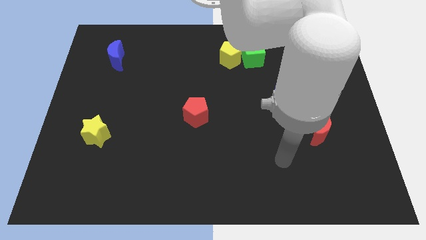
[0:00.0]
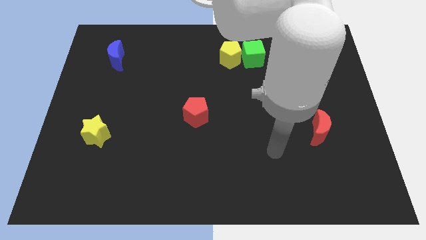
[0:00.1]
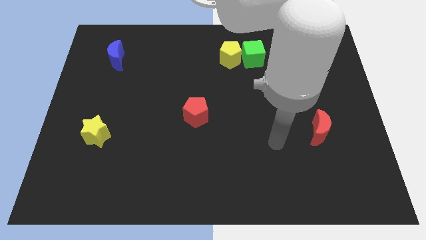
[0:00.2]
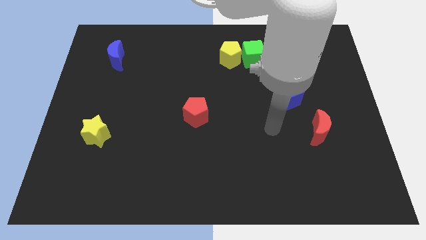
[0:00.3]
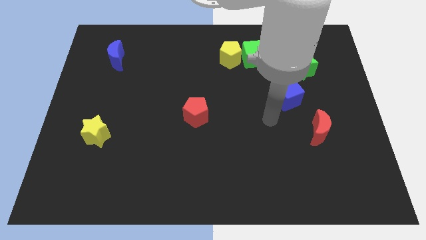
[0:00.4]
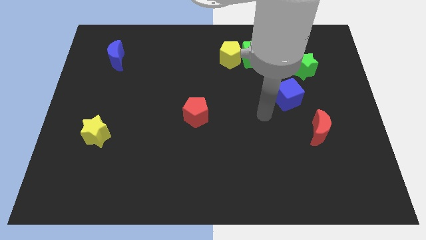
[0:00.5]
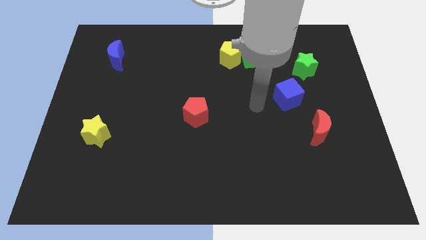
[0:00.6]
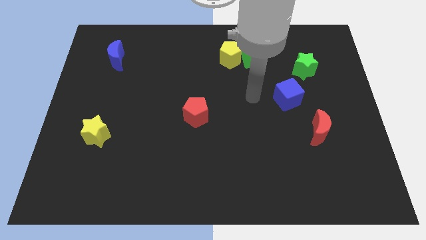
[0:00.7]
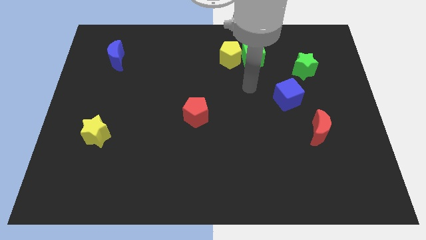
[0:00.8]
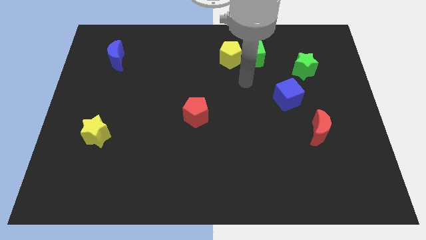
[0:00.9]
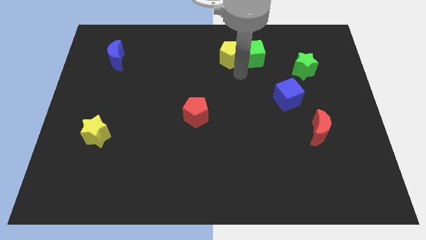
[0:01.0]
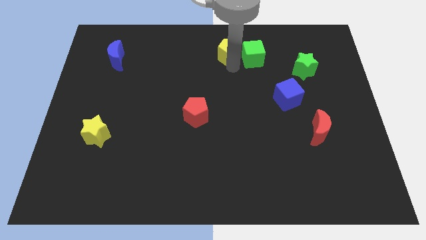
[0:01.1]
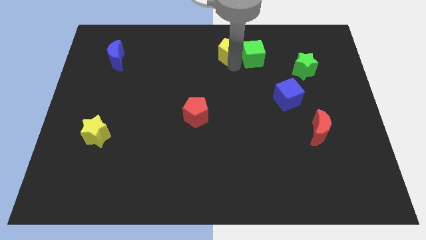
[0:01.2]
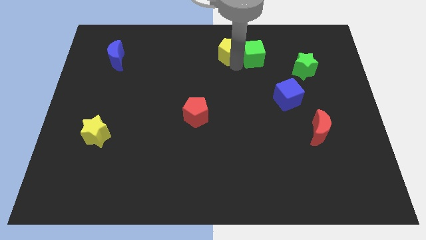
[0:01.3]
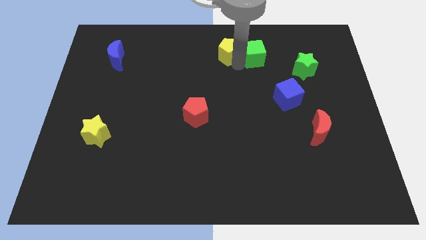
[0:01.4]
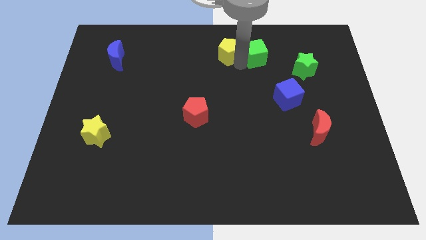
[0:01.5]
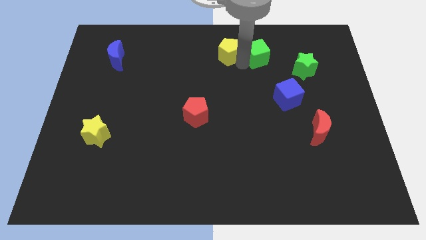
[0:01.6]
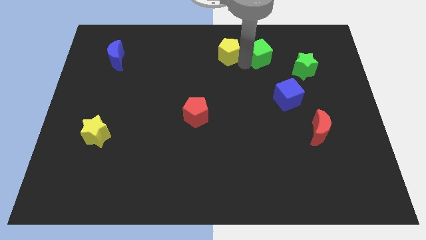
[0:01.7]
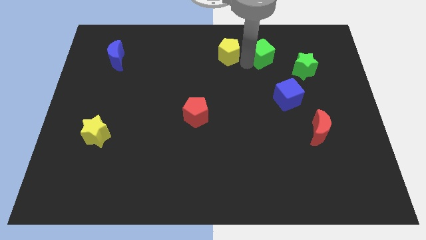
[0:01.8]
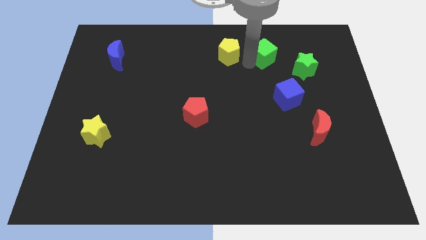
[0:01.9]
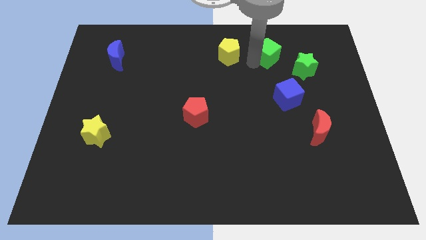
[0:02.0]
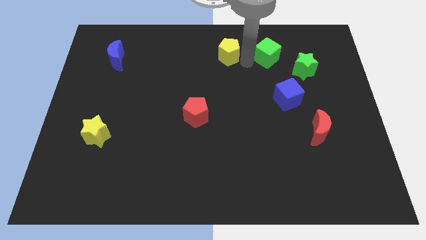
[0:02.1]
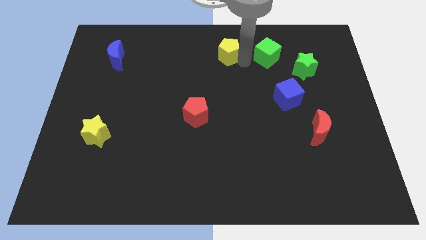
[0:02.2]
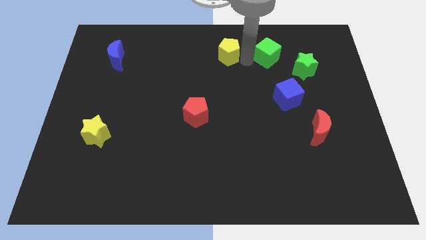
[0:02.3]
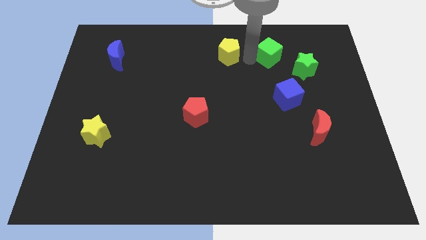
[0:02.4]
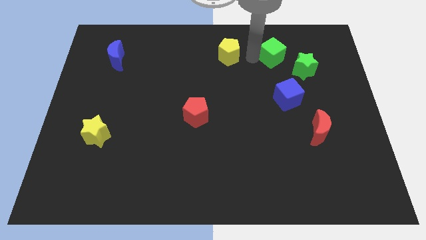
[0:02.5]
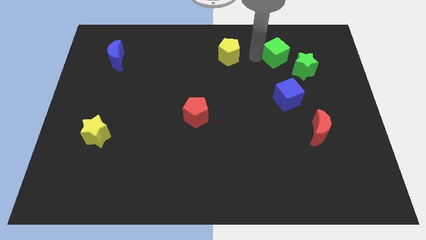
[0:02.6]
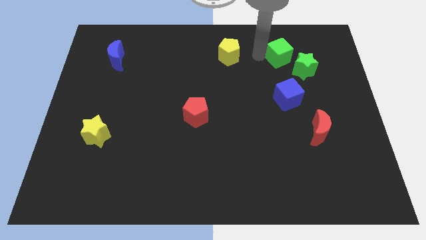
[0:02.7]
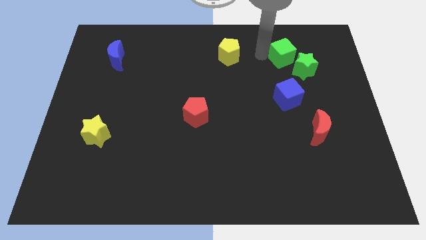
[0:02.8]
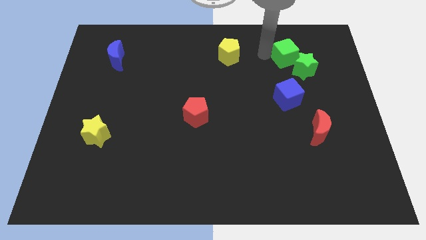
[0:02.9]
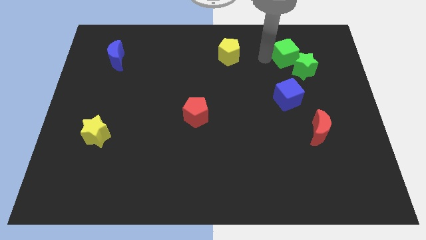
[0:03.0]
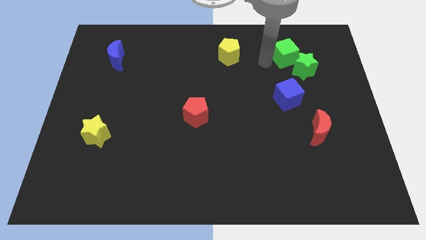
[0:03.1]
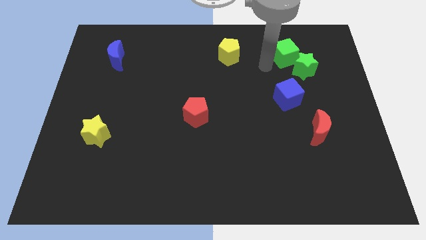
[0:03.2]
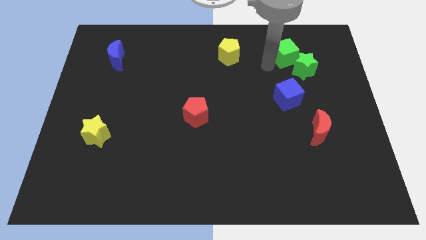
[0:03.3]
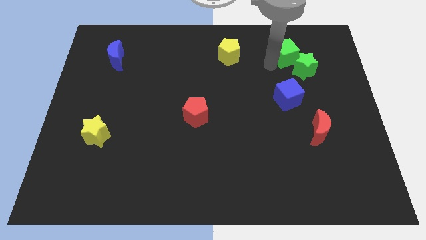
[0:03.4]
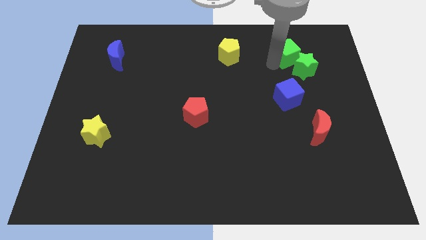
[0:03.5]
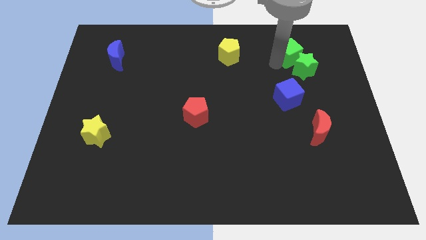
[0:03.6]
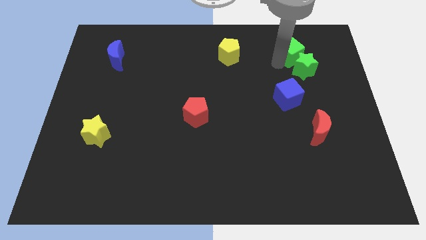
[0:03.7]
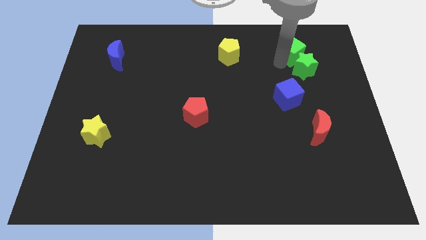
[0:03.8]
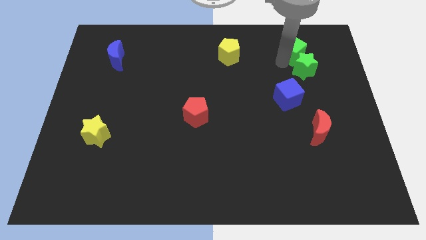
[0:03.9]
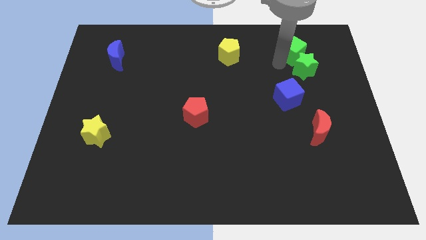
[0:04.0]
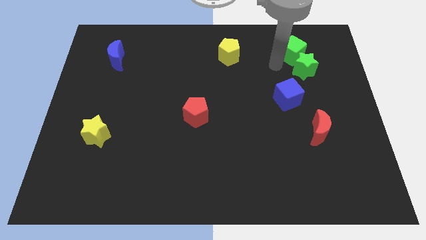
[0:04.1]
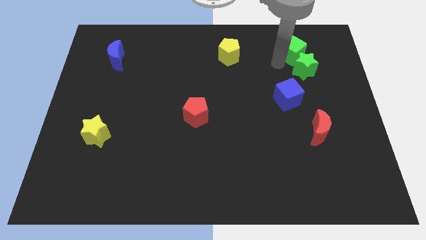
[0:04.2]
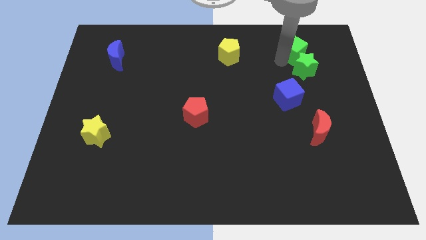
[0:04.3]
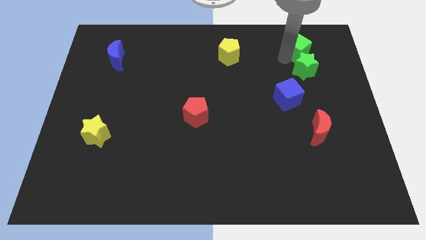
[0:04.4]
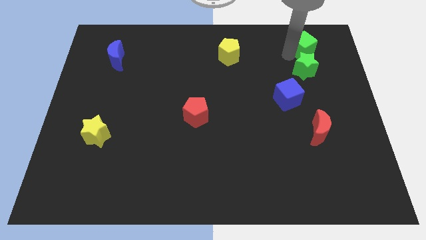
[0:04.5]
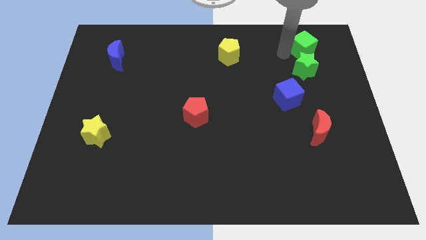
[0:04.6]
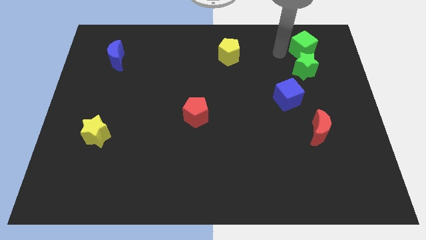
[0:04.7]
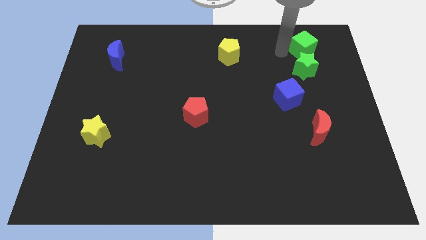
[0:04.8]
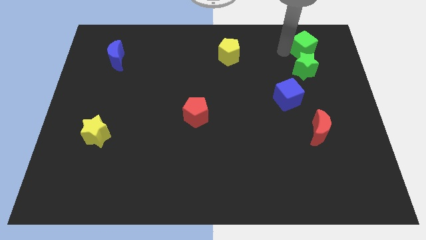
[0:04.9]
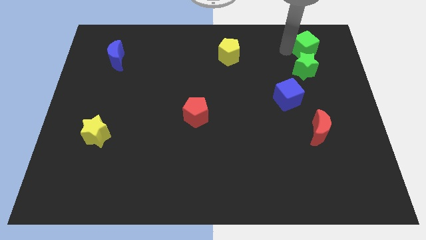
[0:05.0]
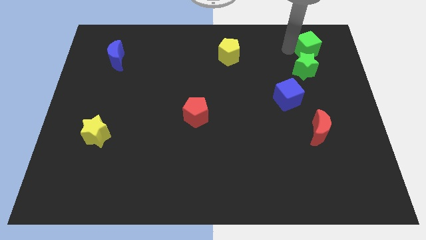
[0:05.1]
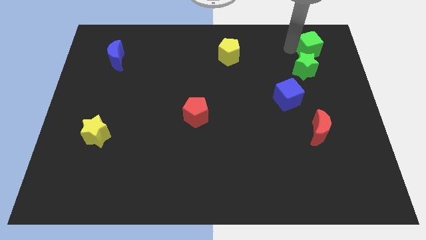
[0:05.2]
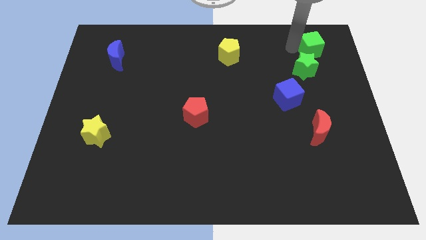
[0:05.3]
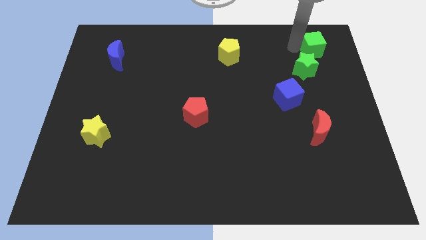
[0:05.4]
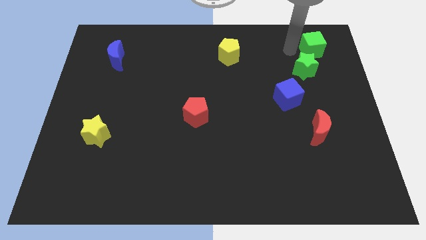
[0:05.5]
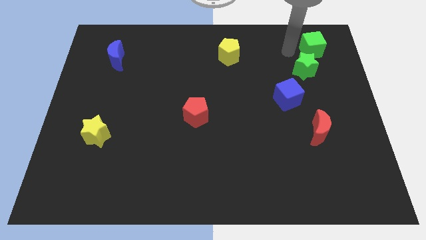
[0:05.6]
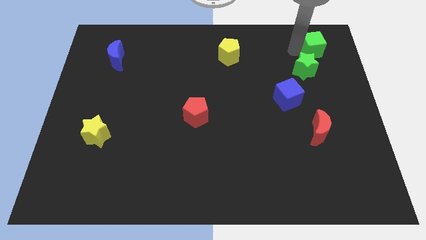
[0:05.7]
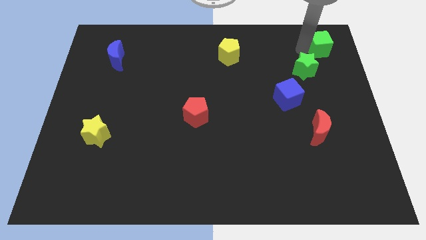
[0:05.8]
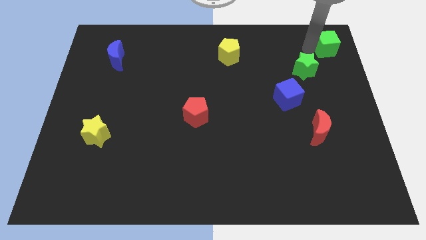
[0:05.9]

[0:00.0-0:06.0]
move the green cube to the top right of the board
